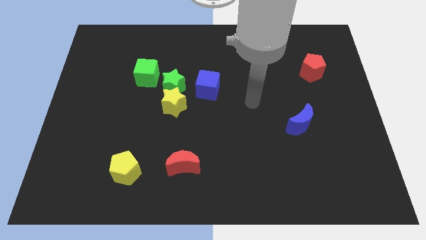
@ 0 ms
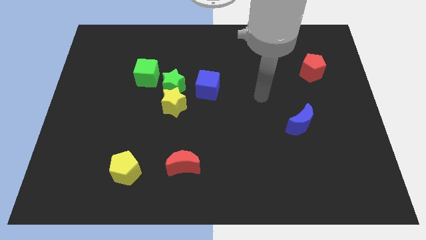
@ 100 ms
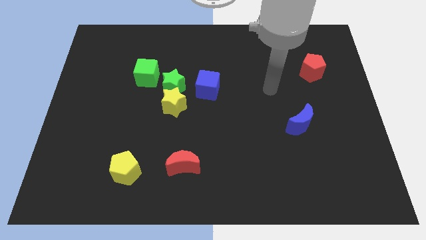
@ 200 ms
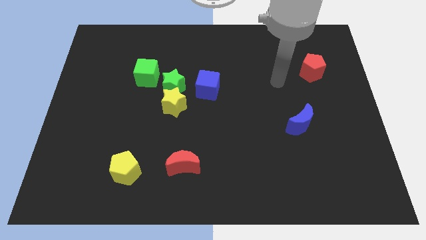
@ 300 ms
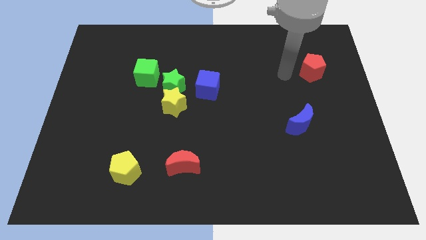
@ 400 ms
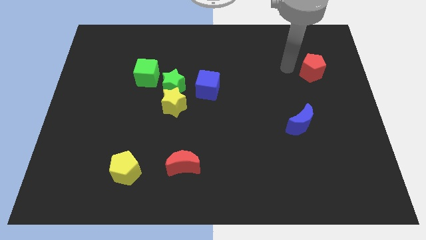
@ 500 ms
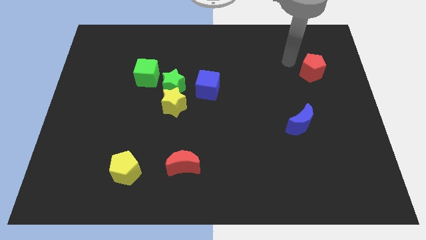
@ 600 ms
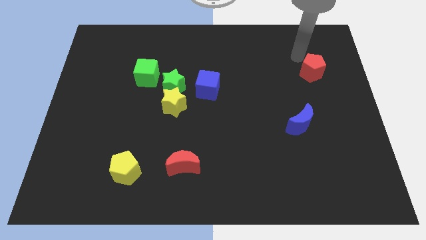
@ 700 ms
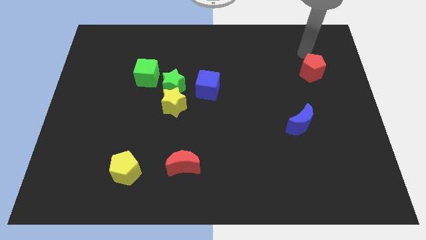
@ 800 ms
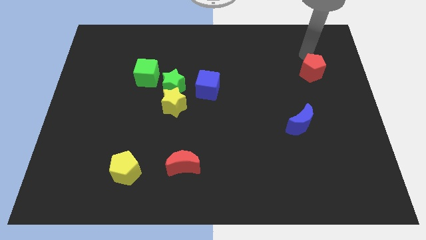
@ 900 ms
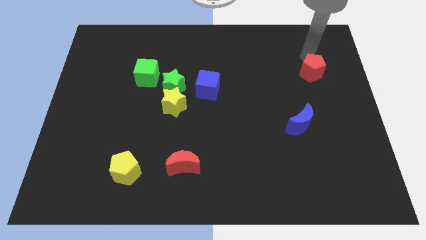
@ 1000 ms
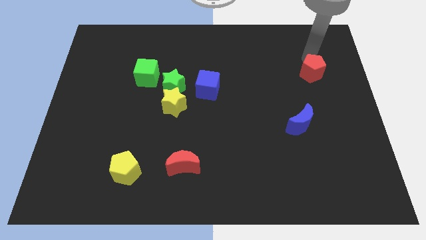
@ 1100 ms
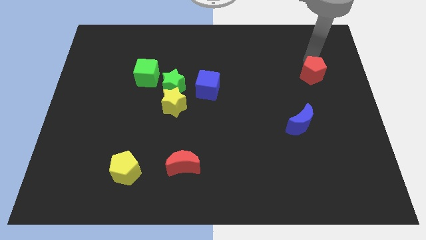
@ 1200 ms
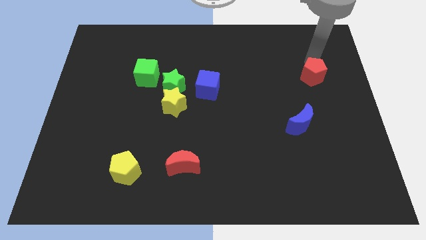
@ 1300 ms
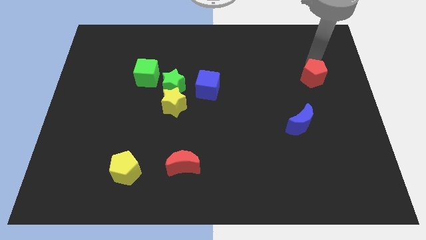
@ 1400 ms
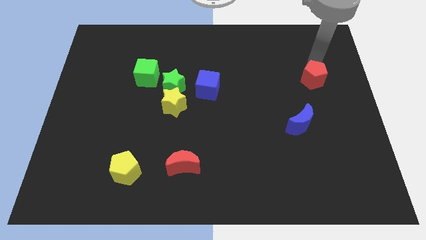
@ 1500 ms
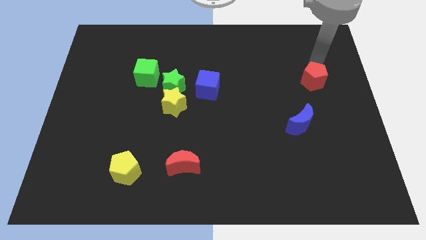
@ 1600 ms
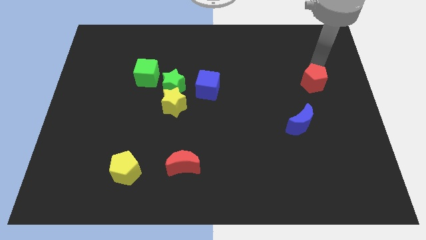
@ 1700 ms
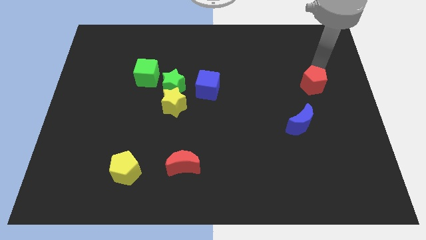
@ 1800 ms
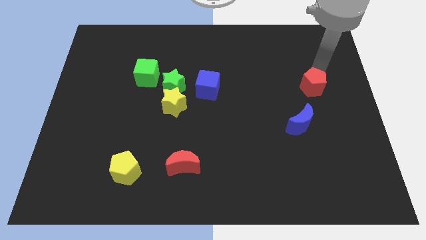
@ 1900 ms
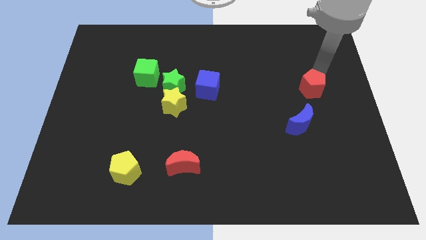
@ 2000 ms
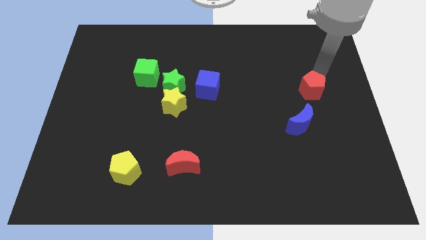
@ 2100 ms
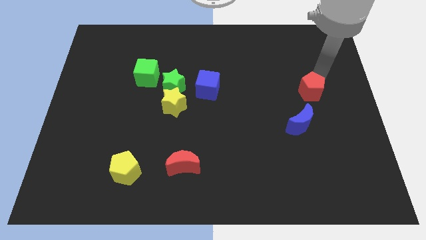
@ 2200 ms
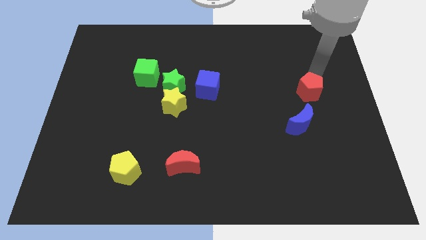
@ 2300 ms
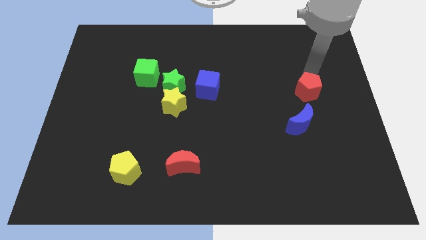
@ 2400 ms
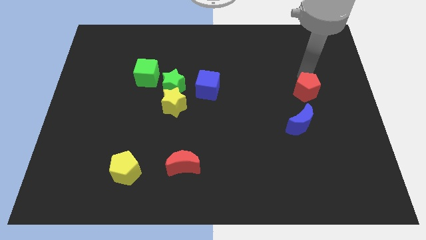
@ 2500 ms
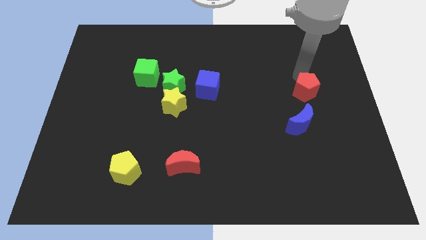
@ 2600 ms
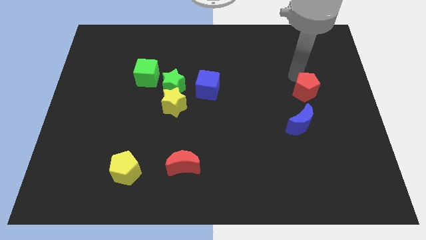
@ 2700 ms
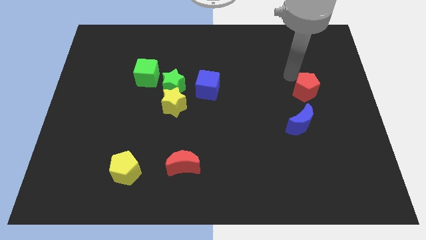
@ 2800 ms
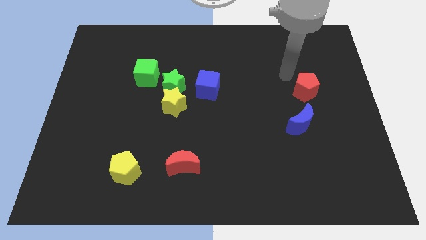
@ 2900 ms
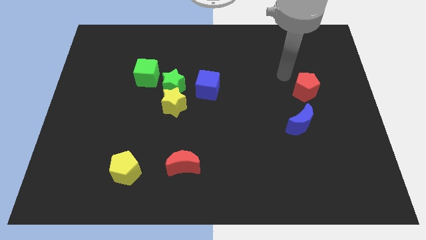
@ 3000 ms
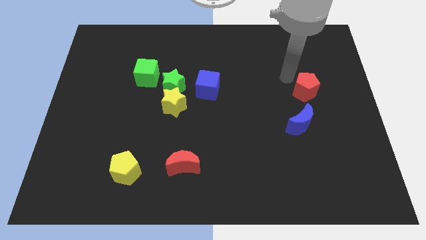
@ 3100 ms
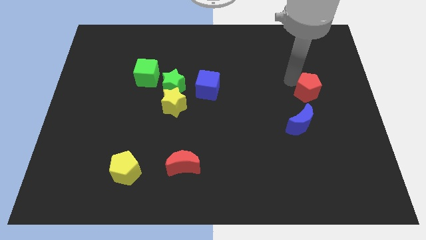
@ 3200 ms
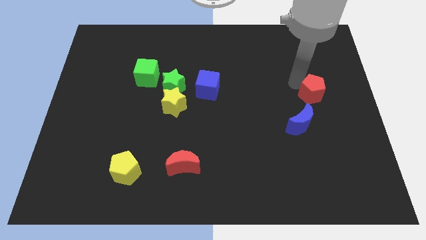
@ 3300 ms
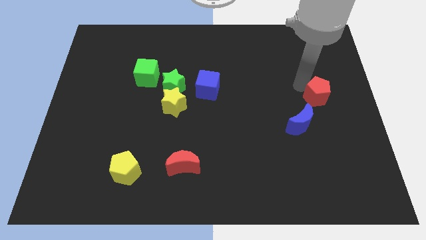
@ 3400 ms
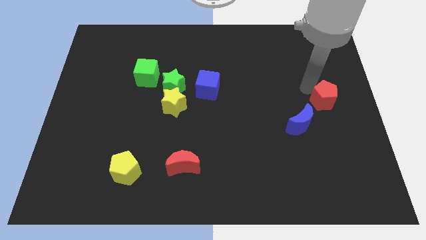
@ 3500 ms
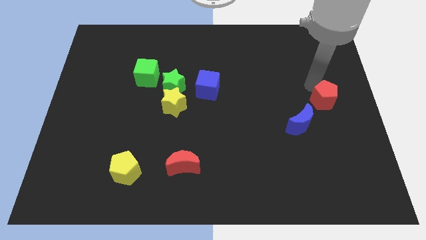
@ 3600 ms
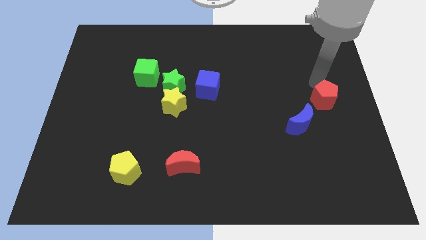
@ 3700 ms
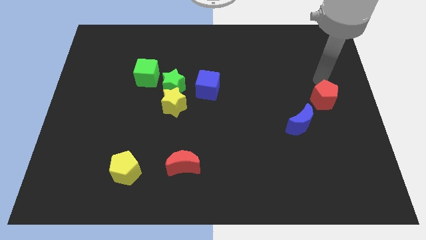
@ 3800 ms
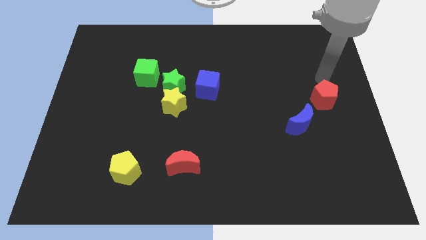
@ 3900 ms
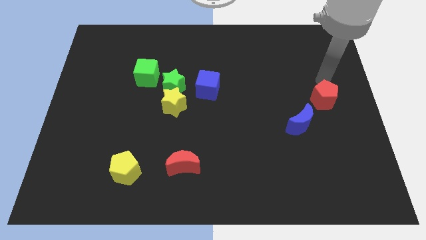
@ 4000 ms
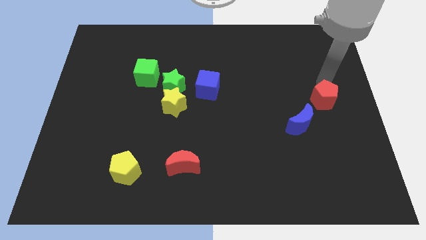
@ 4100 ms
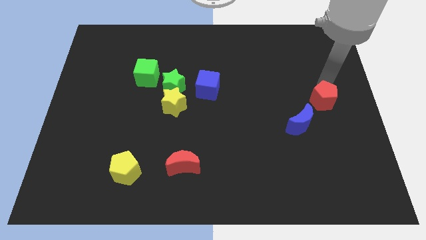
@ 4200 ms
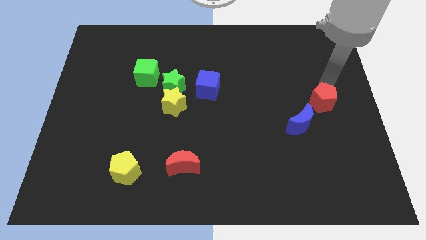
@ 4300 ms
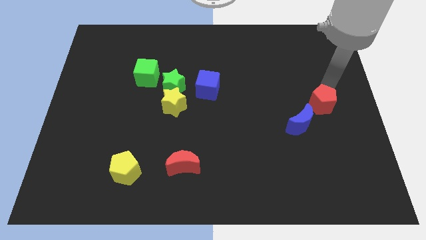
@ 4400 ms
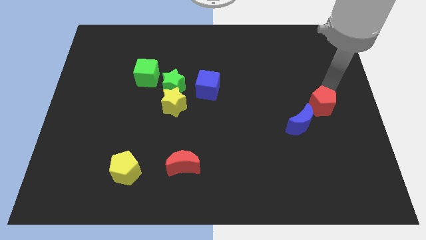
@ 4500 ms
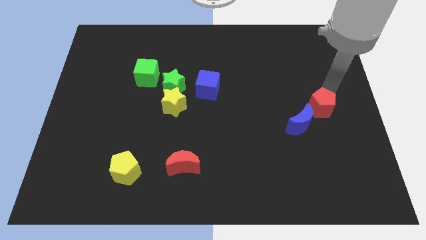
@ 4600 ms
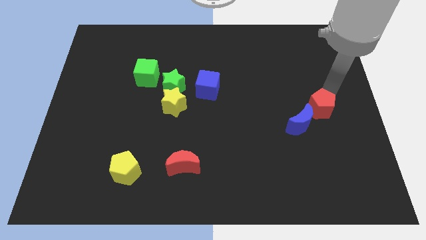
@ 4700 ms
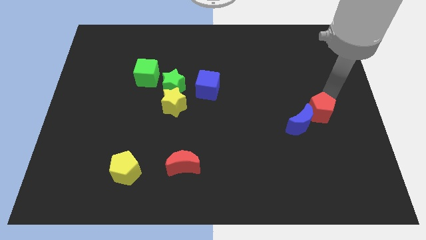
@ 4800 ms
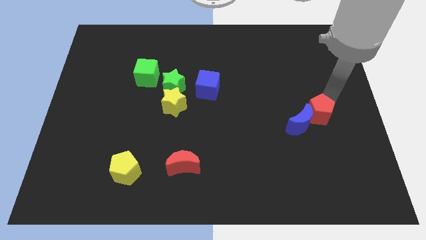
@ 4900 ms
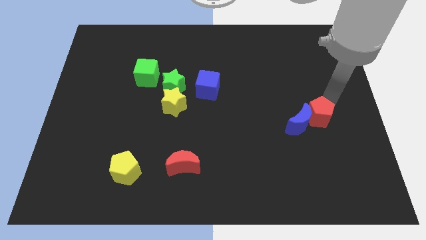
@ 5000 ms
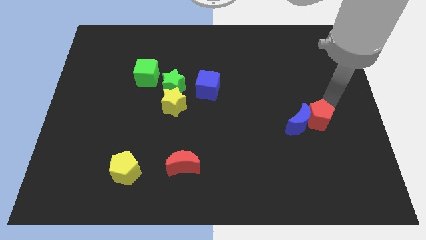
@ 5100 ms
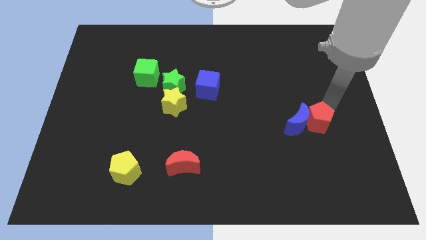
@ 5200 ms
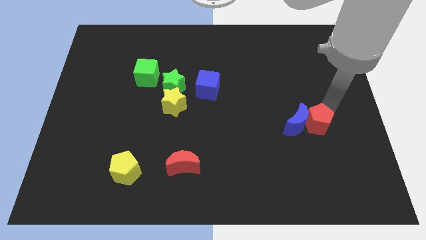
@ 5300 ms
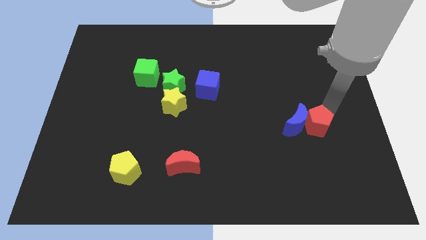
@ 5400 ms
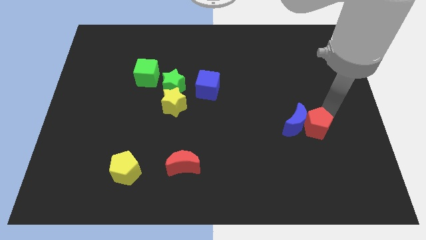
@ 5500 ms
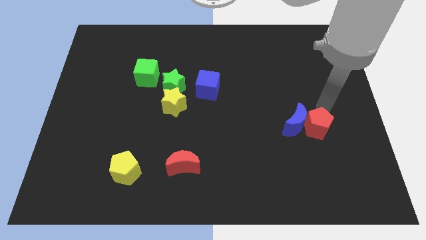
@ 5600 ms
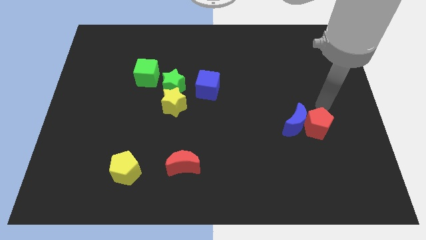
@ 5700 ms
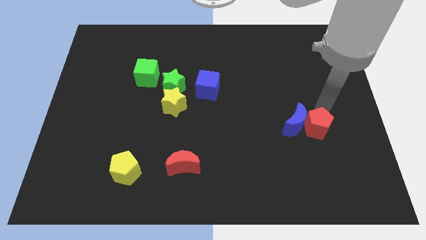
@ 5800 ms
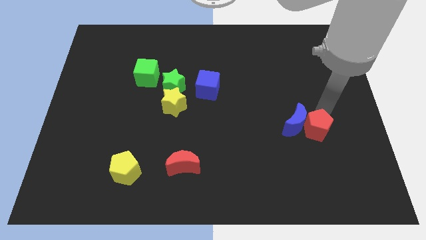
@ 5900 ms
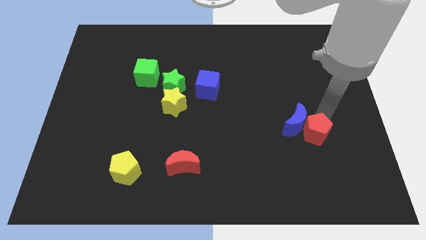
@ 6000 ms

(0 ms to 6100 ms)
move the red pentagon below the blue moon
